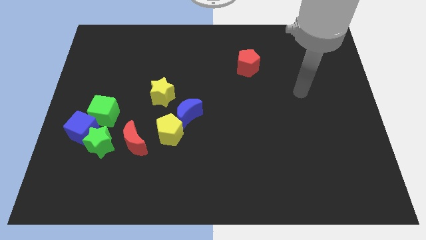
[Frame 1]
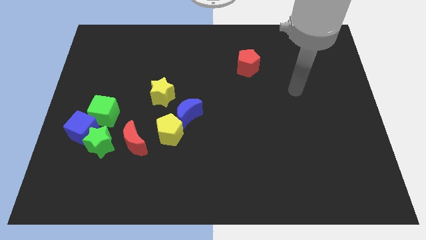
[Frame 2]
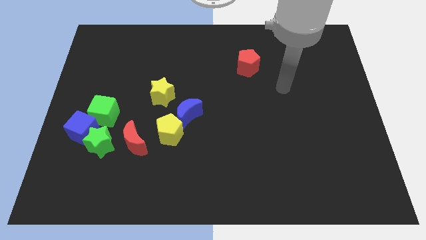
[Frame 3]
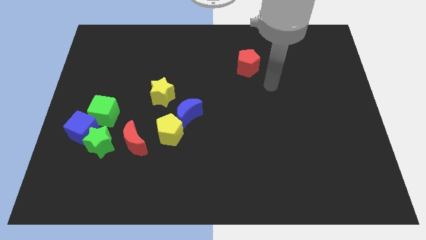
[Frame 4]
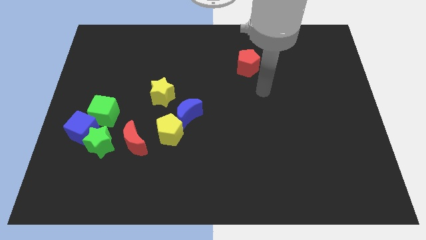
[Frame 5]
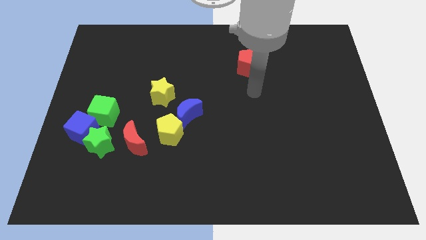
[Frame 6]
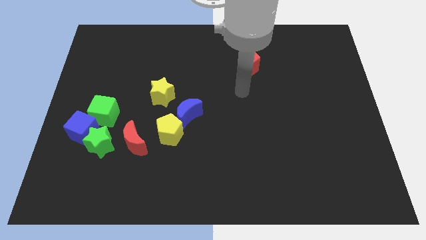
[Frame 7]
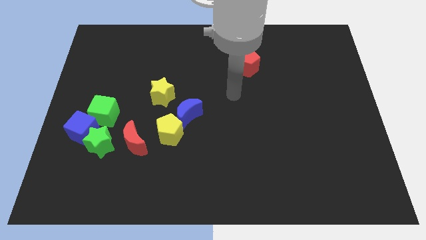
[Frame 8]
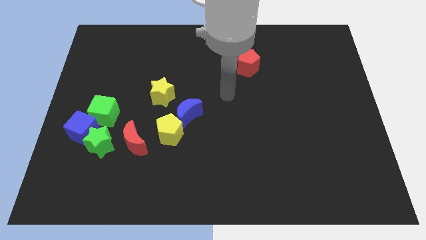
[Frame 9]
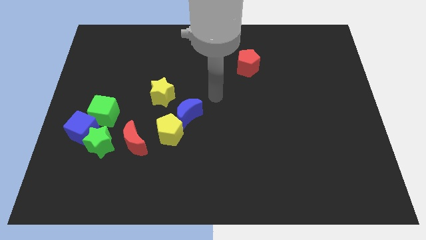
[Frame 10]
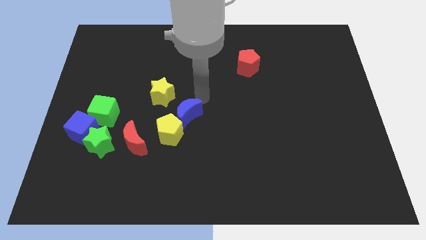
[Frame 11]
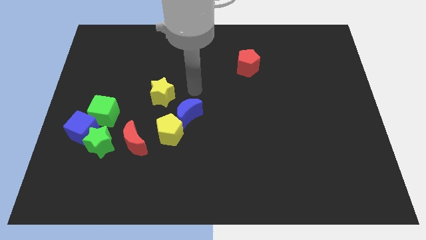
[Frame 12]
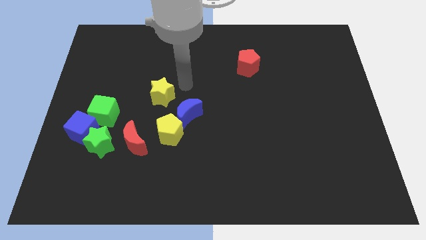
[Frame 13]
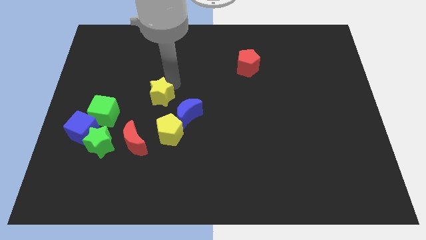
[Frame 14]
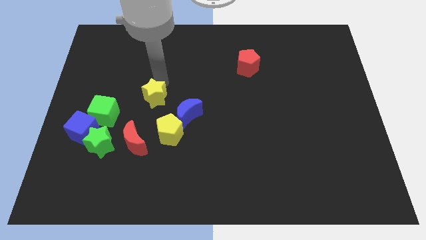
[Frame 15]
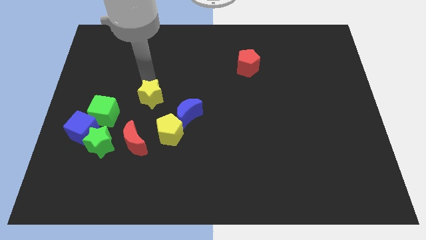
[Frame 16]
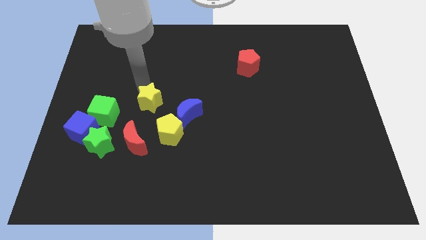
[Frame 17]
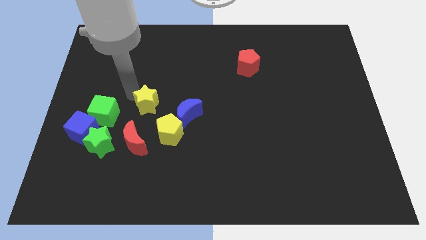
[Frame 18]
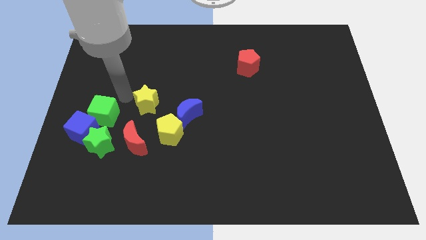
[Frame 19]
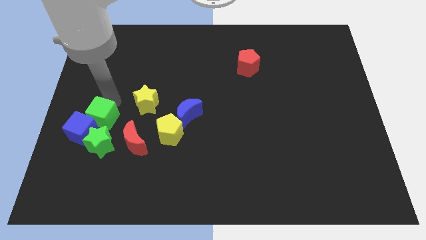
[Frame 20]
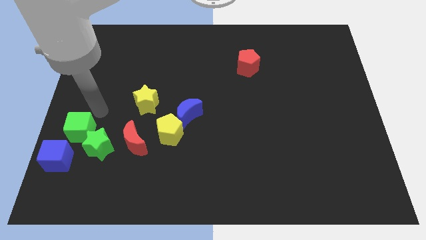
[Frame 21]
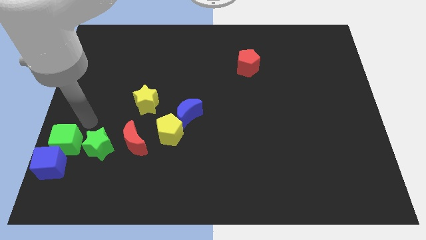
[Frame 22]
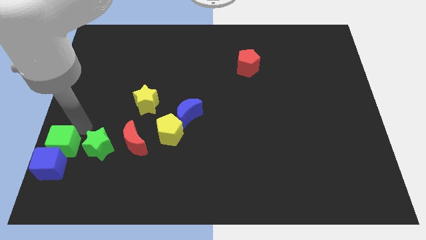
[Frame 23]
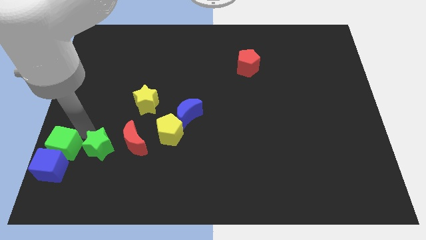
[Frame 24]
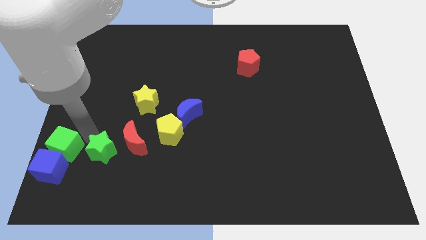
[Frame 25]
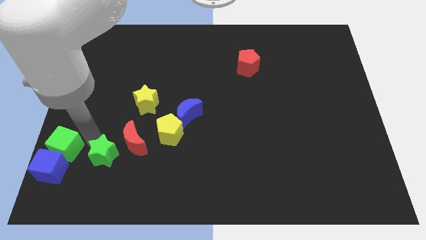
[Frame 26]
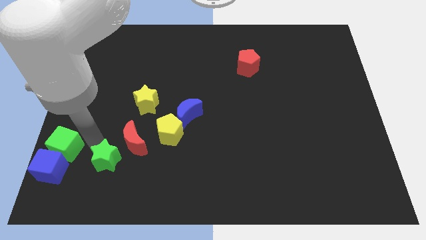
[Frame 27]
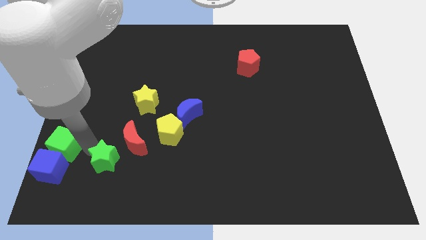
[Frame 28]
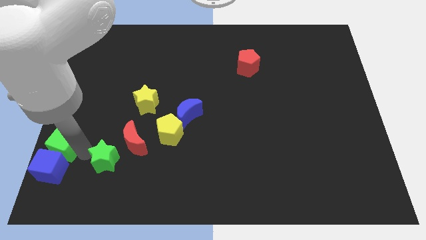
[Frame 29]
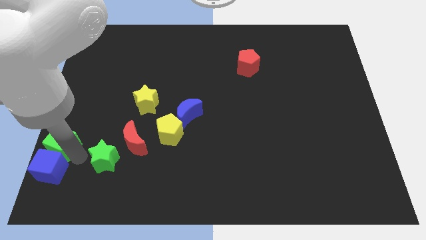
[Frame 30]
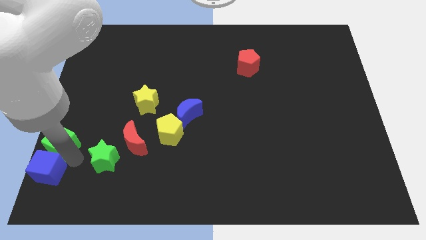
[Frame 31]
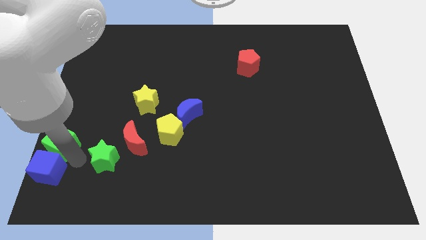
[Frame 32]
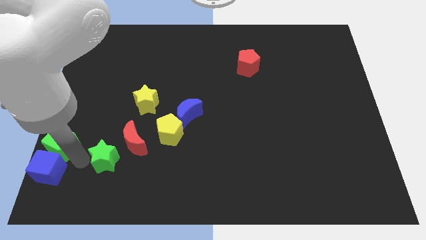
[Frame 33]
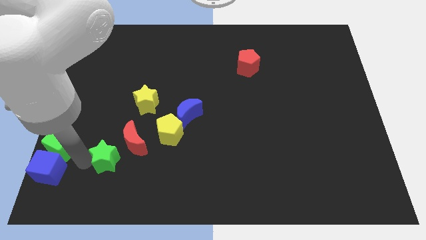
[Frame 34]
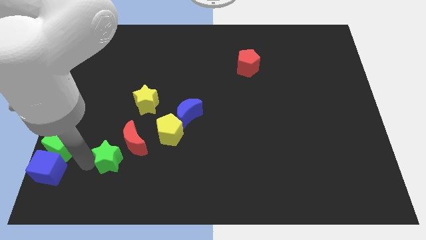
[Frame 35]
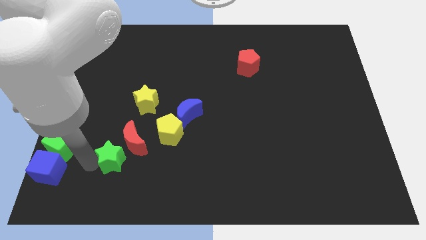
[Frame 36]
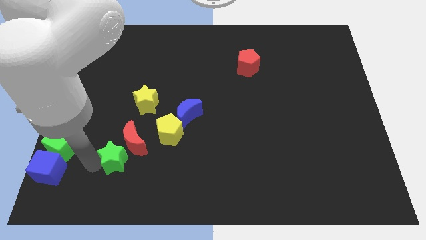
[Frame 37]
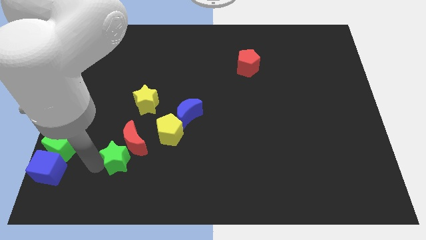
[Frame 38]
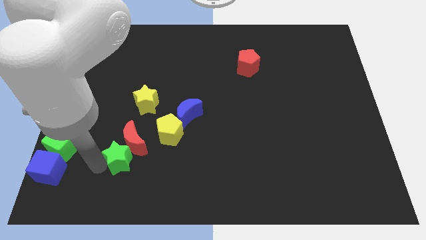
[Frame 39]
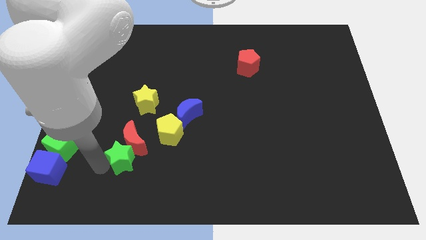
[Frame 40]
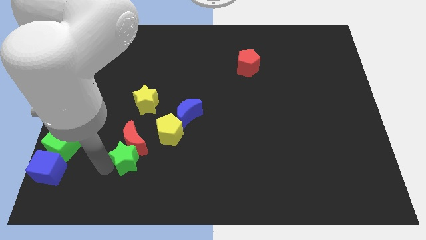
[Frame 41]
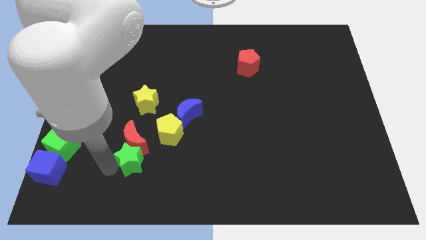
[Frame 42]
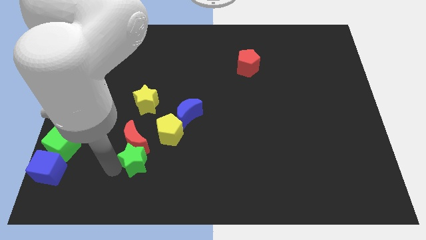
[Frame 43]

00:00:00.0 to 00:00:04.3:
push the green star a little to the right

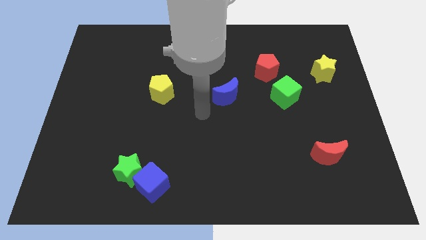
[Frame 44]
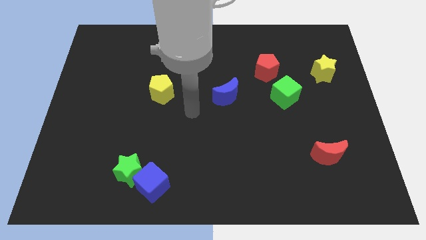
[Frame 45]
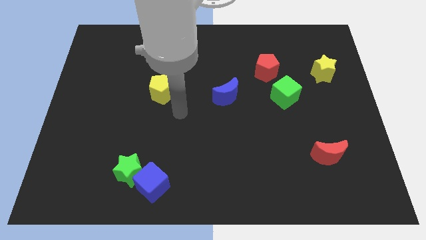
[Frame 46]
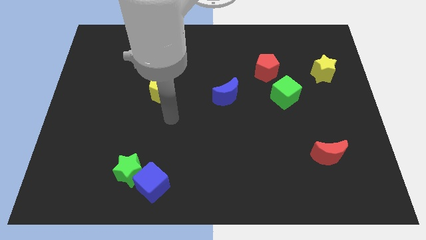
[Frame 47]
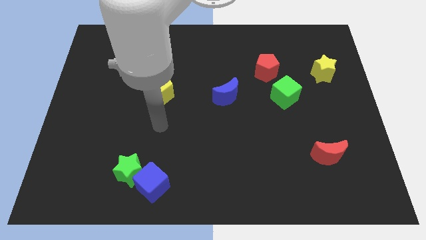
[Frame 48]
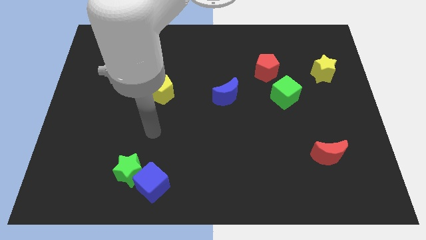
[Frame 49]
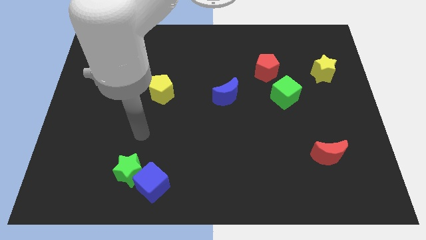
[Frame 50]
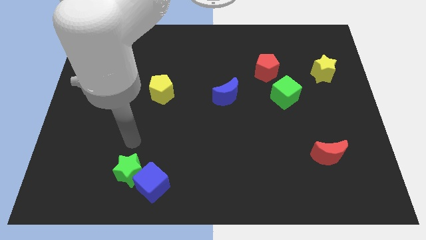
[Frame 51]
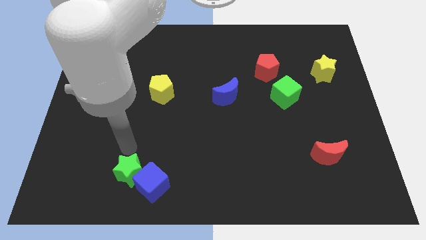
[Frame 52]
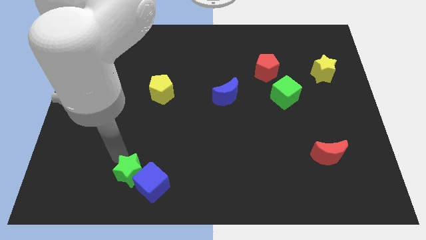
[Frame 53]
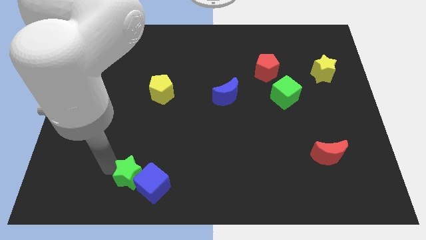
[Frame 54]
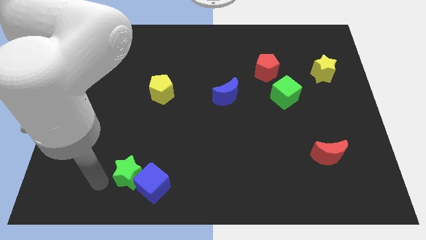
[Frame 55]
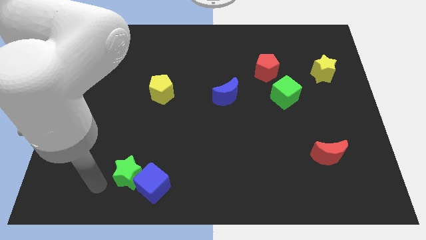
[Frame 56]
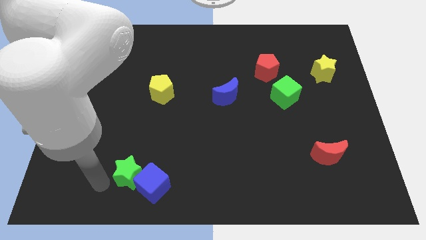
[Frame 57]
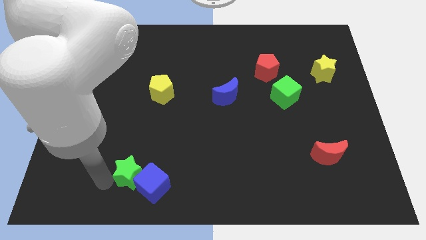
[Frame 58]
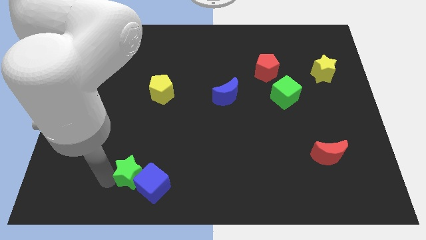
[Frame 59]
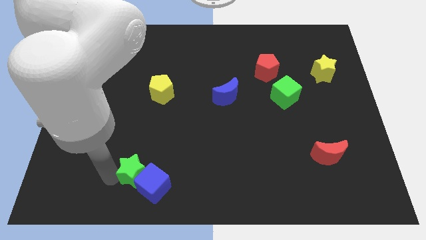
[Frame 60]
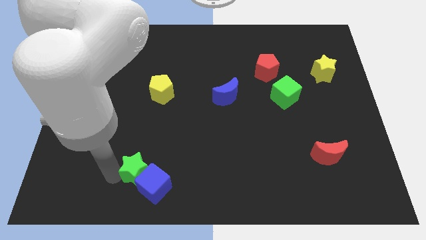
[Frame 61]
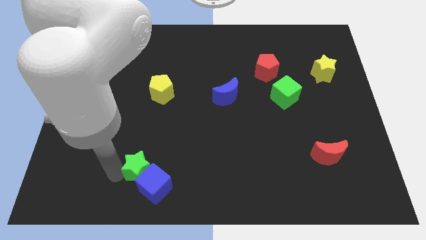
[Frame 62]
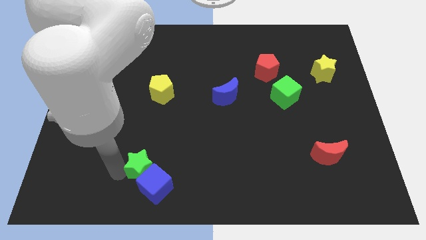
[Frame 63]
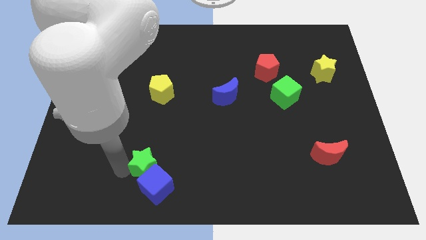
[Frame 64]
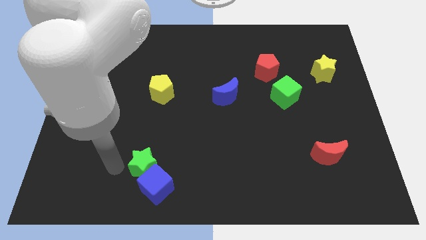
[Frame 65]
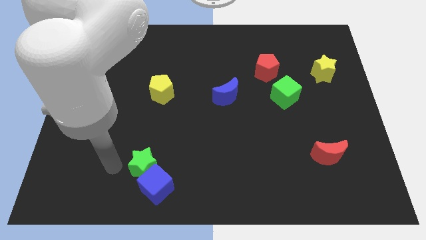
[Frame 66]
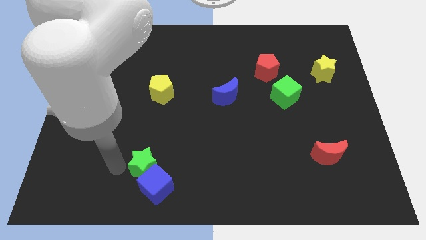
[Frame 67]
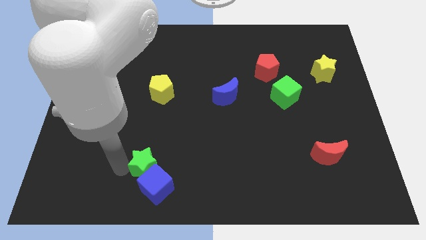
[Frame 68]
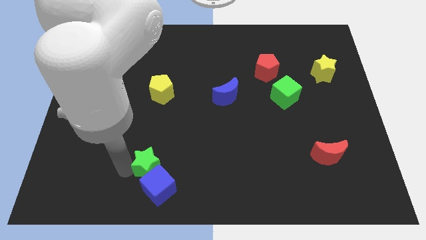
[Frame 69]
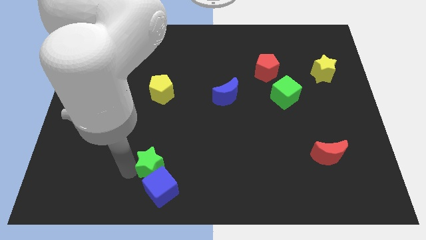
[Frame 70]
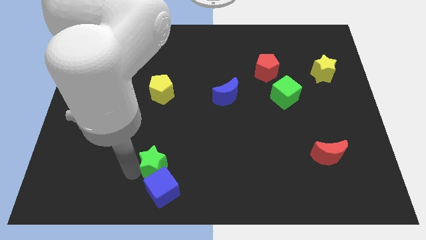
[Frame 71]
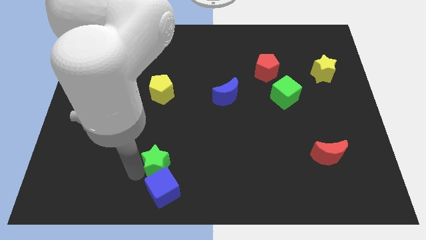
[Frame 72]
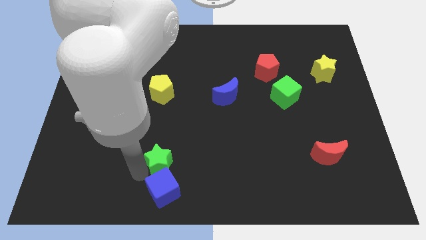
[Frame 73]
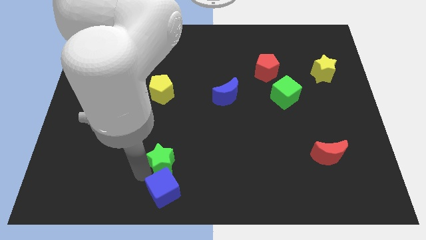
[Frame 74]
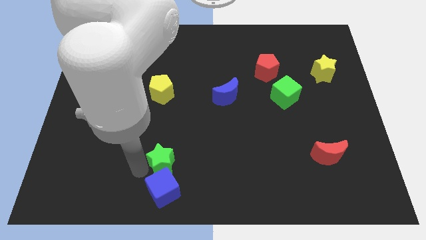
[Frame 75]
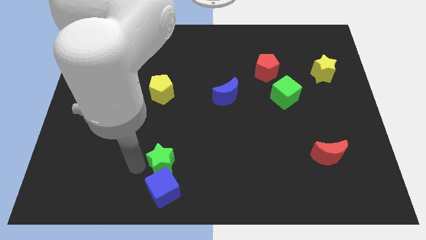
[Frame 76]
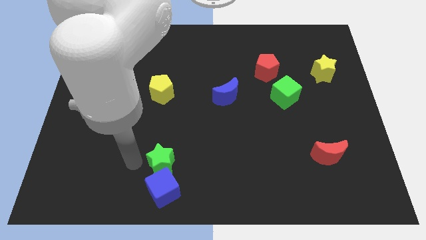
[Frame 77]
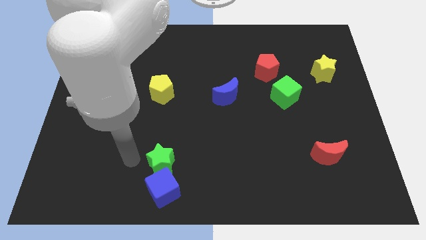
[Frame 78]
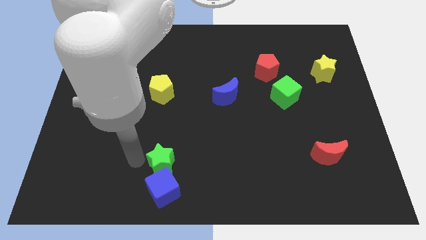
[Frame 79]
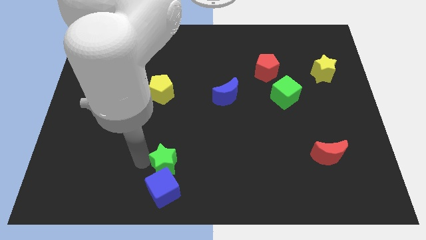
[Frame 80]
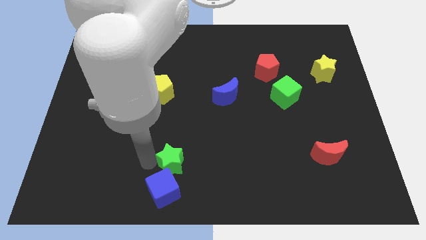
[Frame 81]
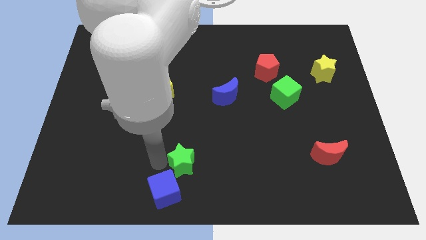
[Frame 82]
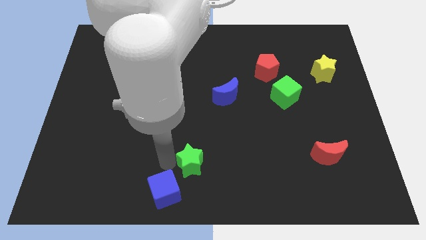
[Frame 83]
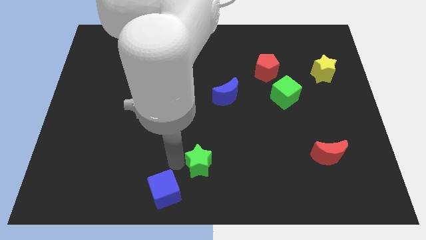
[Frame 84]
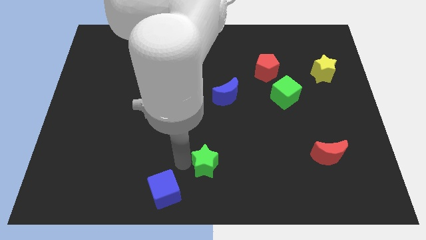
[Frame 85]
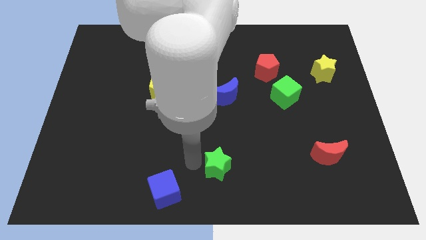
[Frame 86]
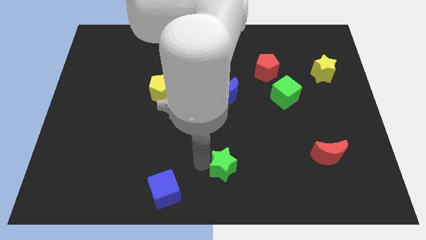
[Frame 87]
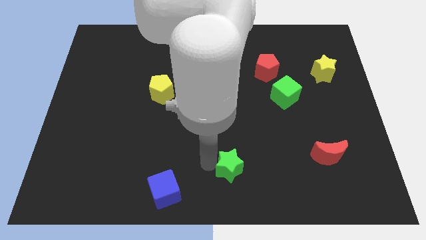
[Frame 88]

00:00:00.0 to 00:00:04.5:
push the green star to the right
